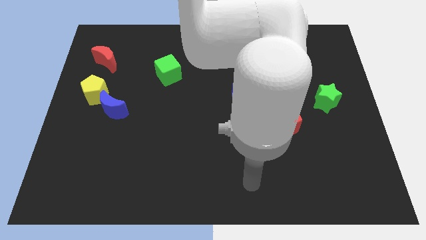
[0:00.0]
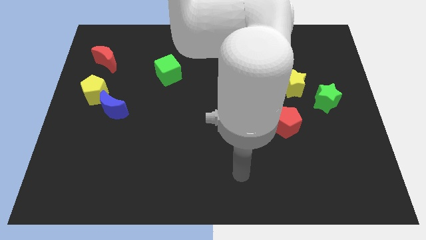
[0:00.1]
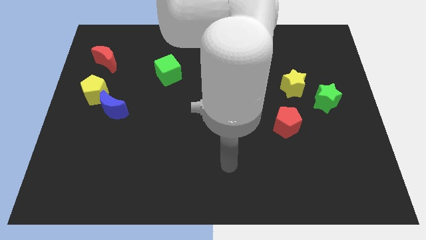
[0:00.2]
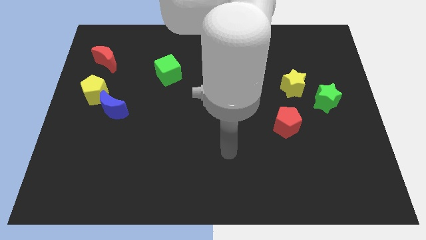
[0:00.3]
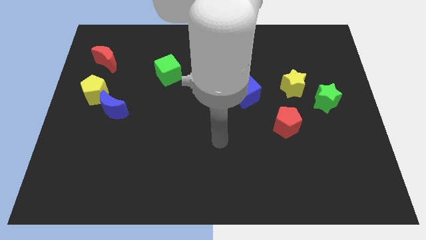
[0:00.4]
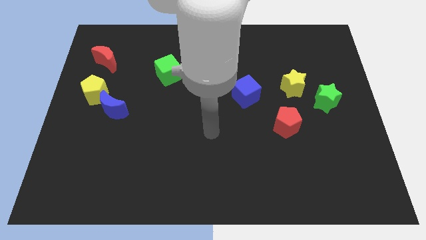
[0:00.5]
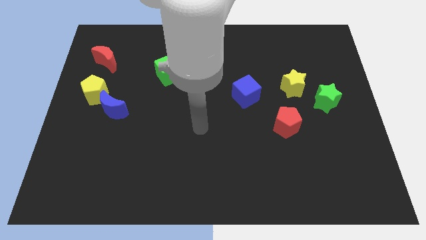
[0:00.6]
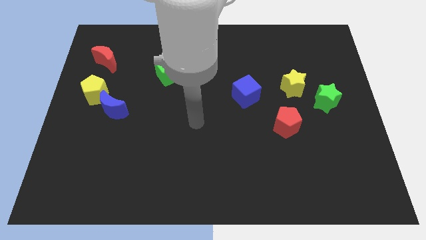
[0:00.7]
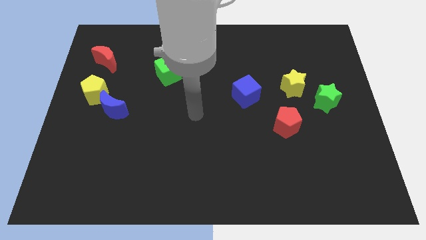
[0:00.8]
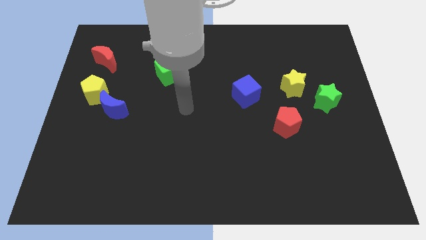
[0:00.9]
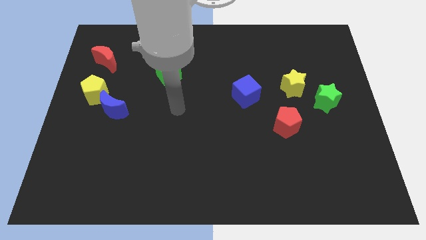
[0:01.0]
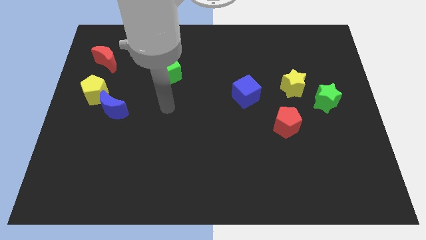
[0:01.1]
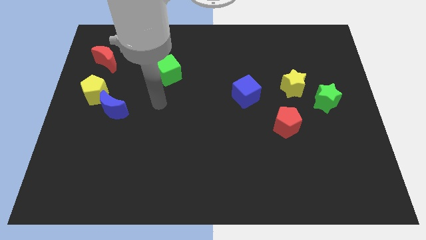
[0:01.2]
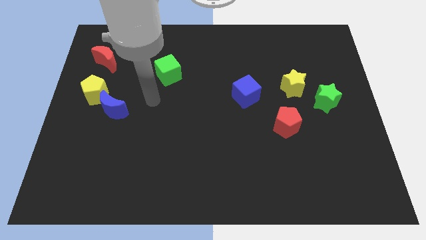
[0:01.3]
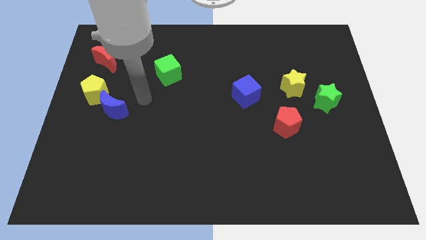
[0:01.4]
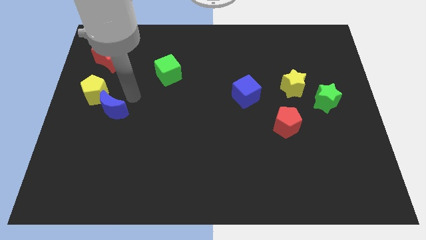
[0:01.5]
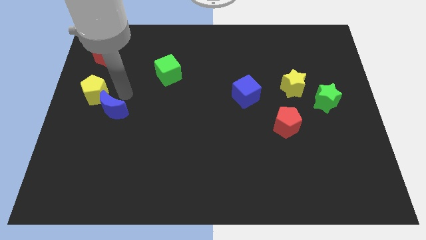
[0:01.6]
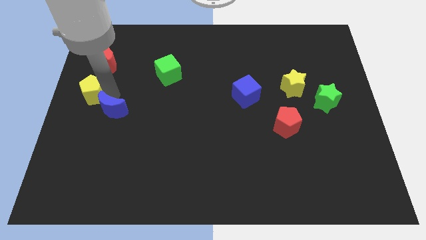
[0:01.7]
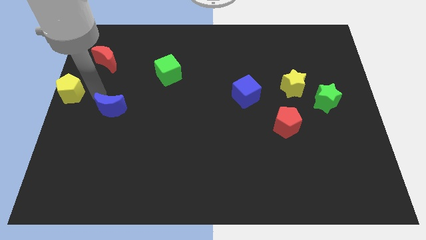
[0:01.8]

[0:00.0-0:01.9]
move the blue moon away from the yellow pentagon

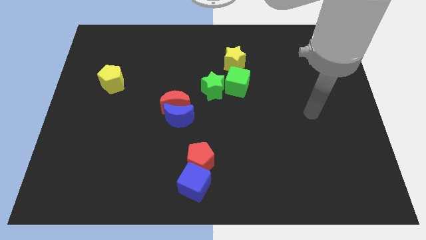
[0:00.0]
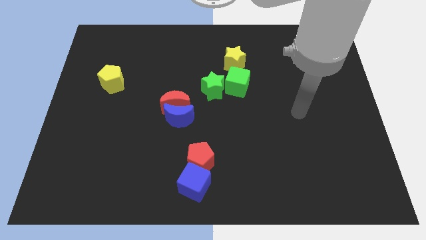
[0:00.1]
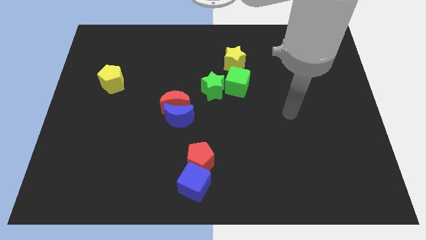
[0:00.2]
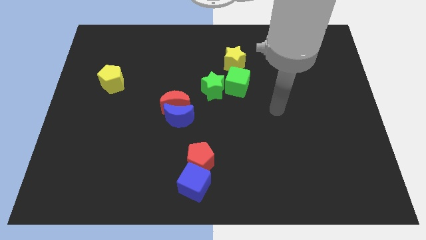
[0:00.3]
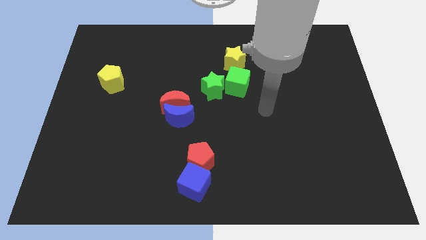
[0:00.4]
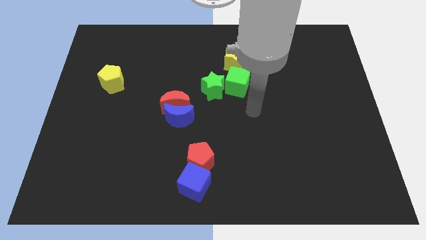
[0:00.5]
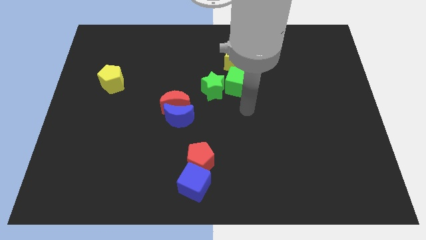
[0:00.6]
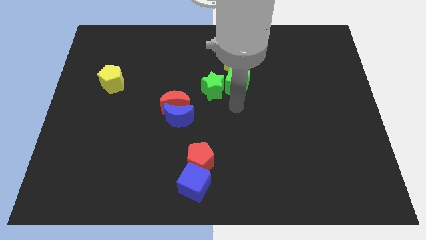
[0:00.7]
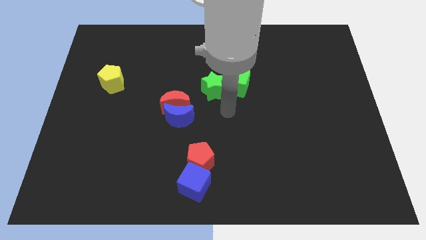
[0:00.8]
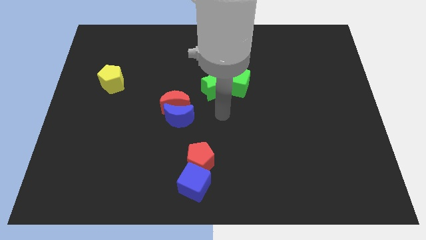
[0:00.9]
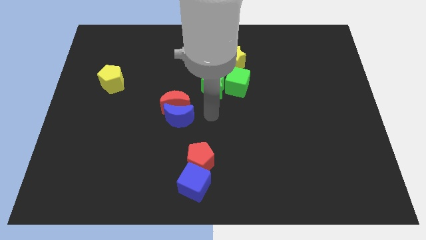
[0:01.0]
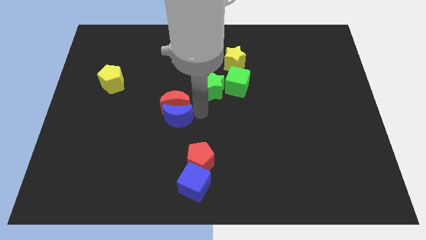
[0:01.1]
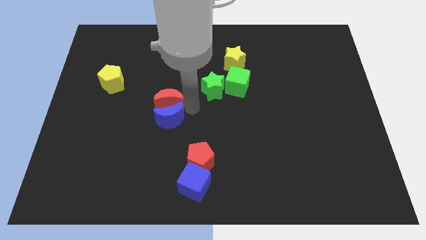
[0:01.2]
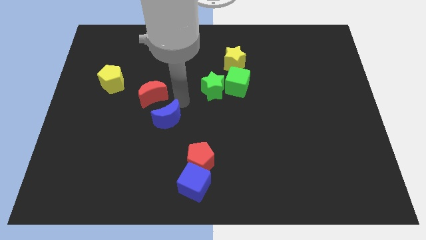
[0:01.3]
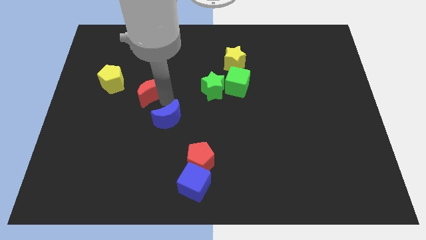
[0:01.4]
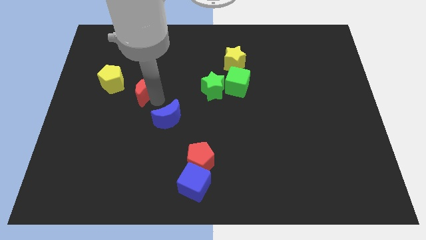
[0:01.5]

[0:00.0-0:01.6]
separate the blue moon from the red moon

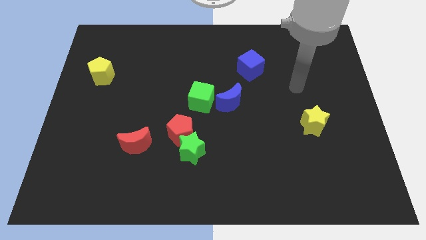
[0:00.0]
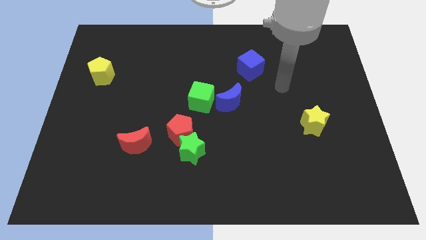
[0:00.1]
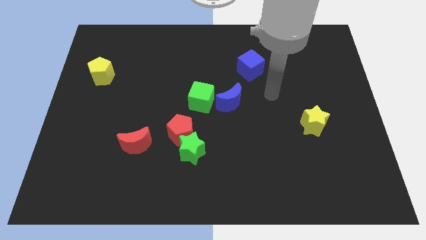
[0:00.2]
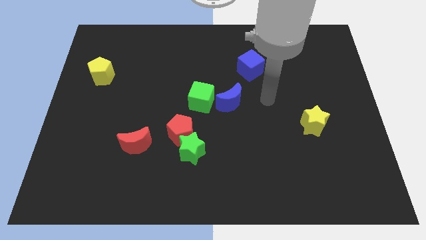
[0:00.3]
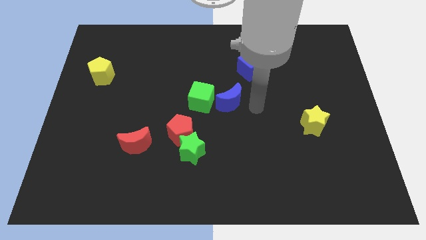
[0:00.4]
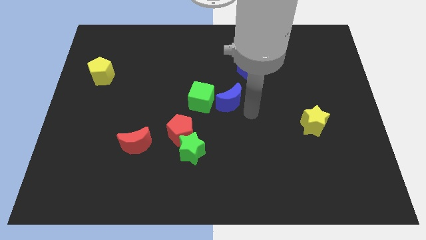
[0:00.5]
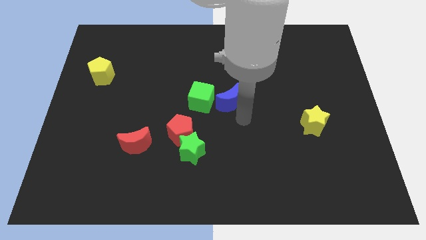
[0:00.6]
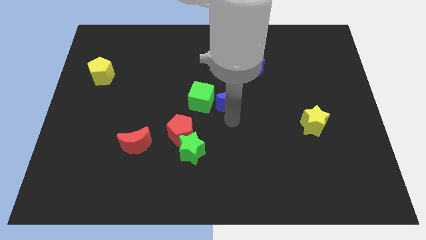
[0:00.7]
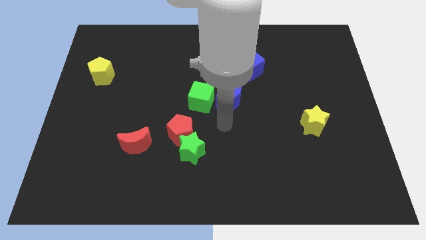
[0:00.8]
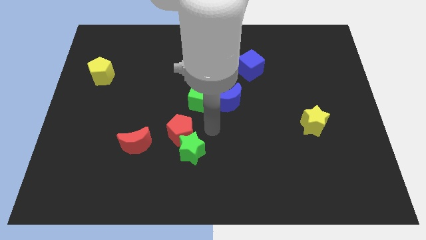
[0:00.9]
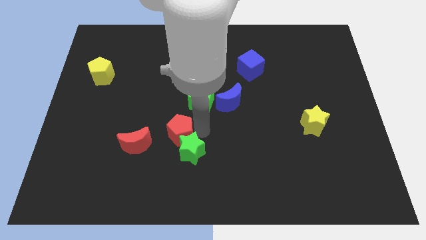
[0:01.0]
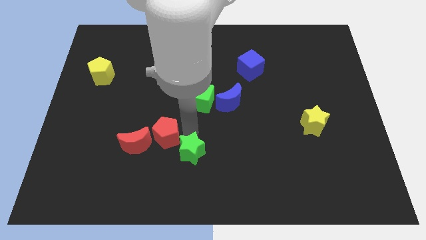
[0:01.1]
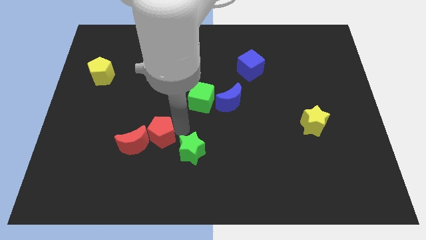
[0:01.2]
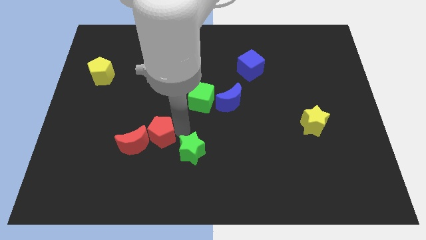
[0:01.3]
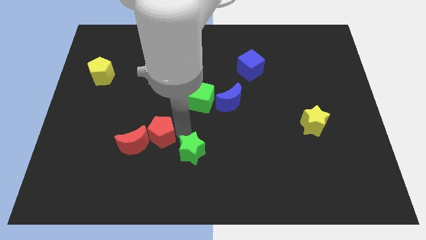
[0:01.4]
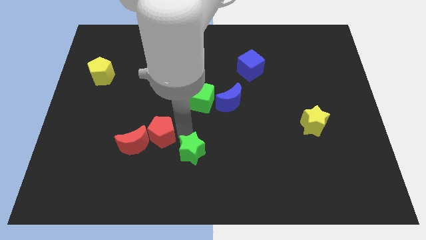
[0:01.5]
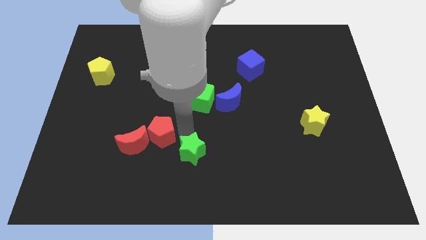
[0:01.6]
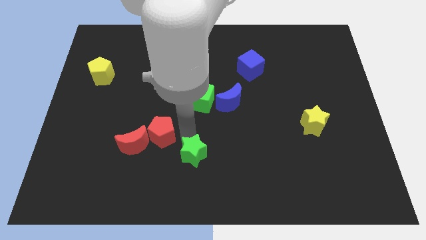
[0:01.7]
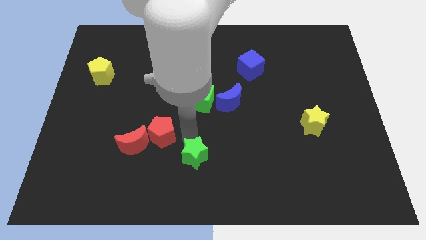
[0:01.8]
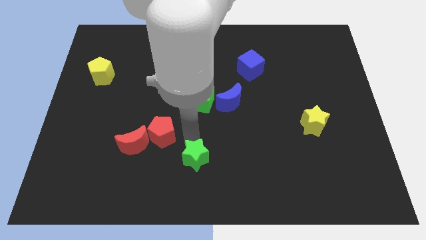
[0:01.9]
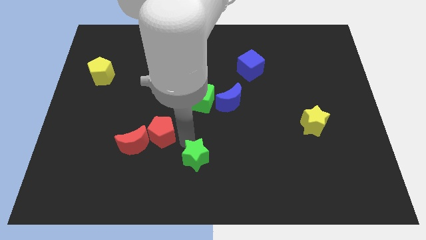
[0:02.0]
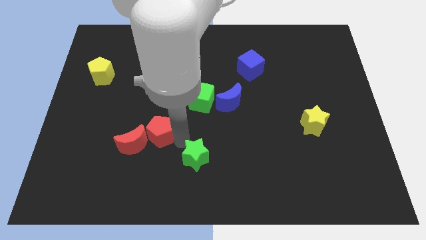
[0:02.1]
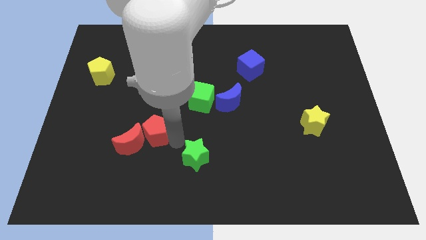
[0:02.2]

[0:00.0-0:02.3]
move the green star away from the red pentagon

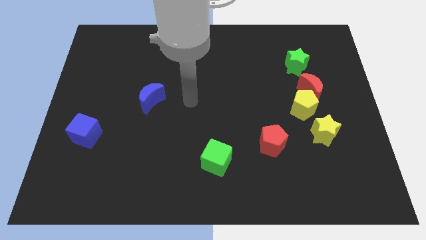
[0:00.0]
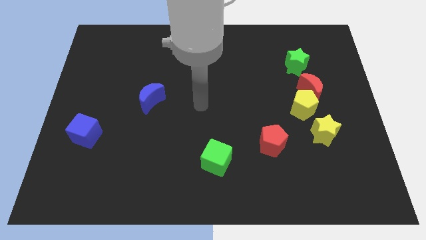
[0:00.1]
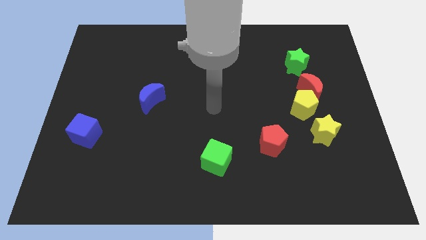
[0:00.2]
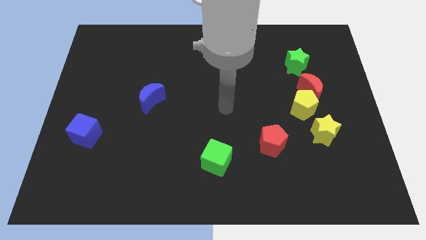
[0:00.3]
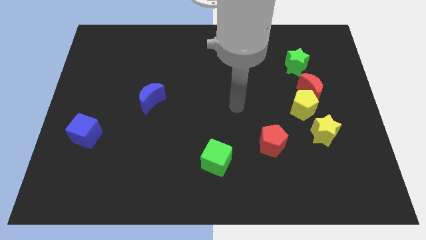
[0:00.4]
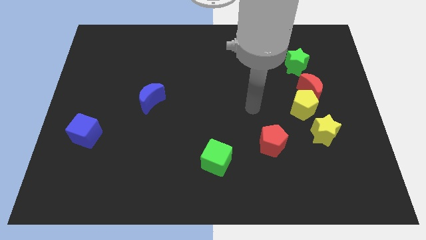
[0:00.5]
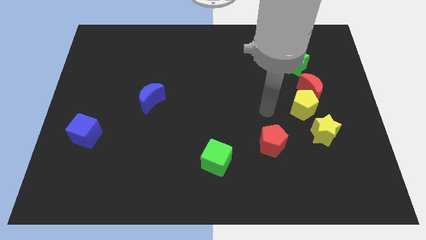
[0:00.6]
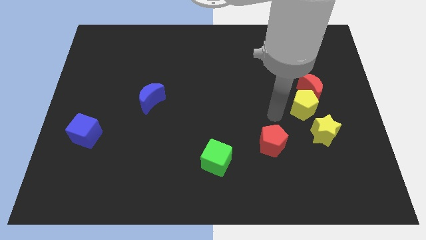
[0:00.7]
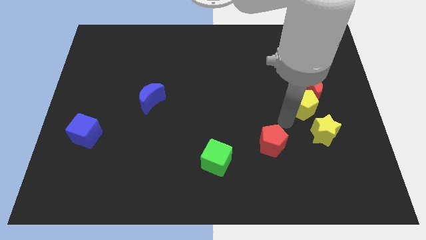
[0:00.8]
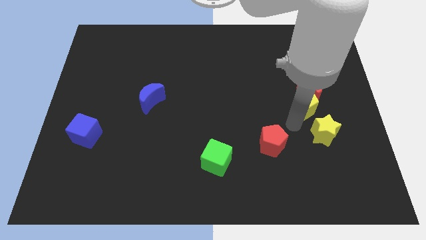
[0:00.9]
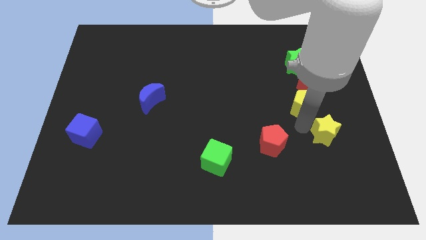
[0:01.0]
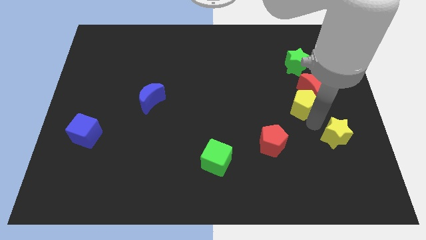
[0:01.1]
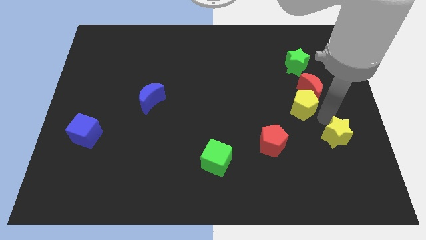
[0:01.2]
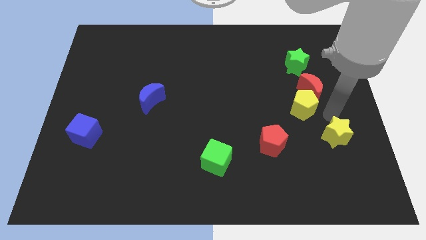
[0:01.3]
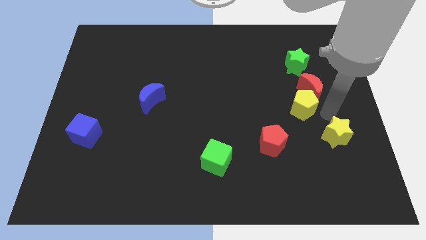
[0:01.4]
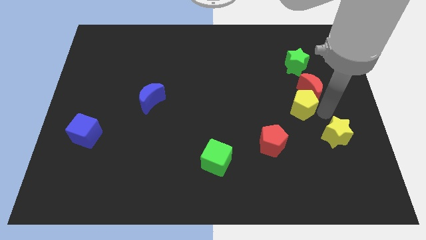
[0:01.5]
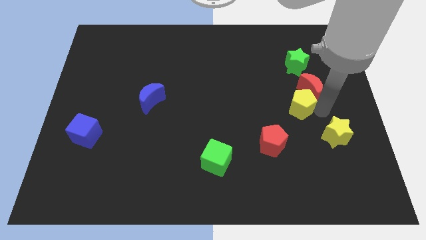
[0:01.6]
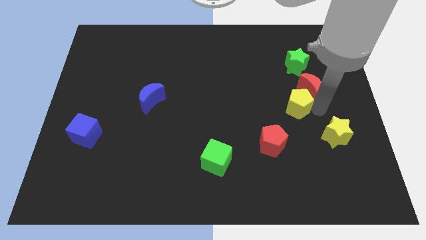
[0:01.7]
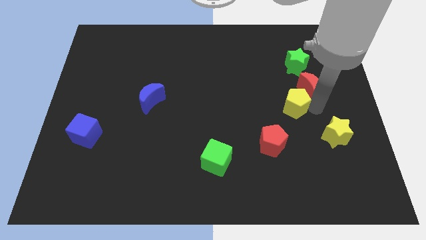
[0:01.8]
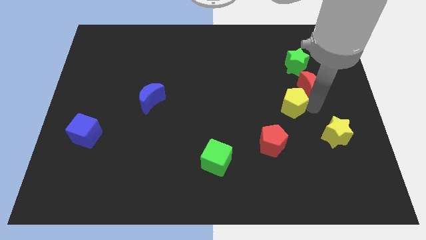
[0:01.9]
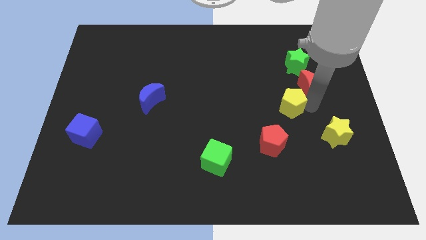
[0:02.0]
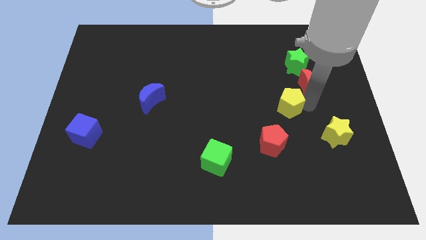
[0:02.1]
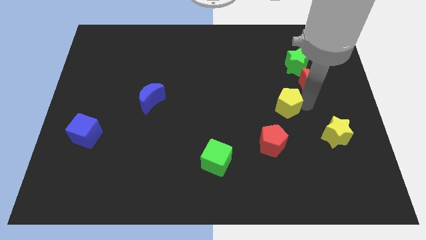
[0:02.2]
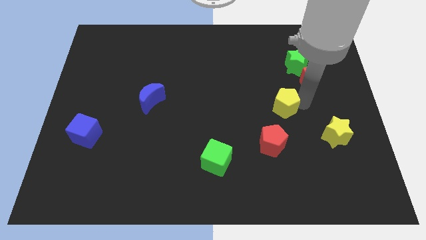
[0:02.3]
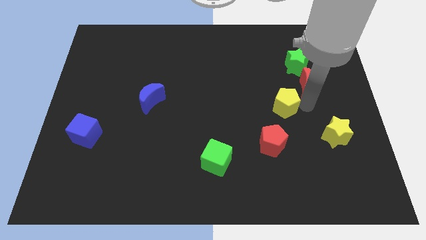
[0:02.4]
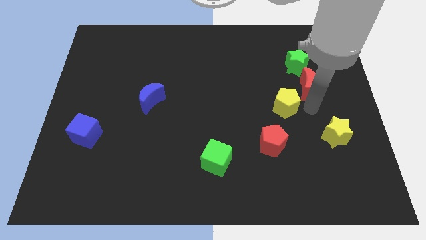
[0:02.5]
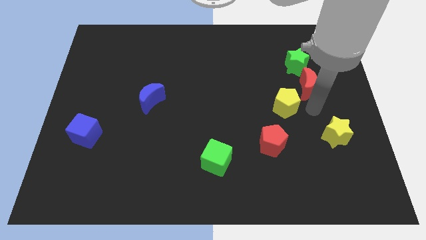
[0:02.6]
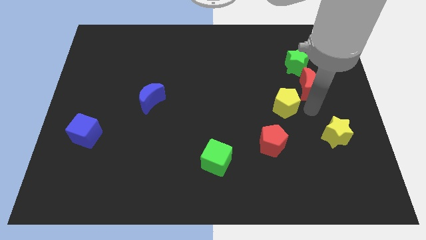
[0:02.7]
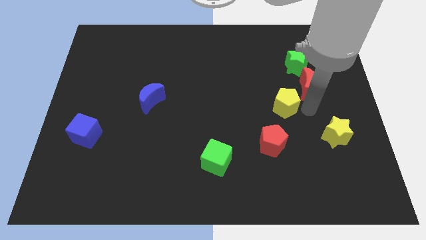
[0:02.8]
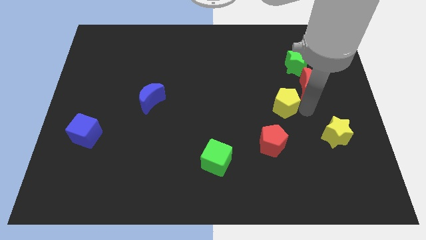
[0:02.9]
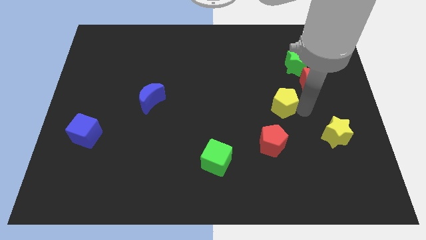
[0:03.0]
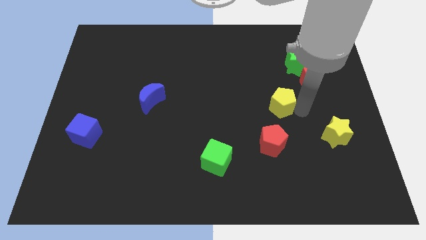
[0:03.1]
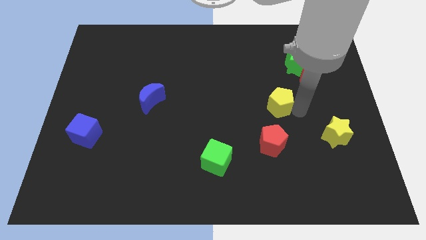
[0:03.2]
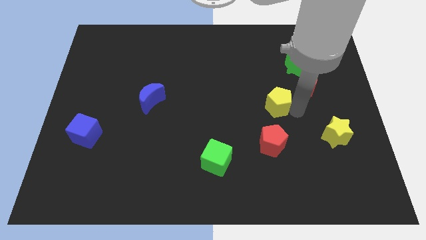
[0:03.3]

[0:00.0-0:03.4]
move the yellow pentagon away from the red moon and yellow star

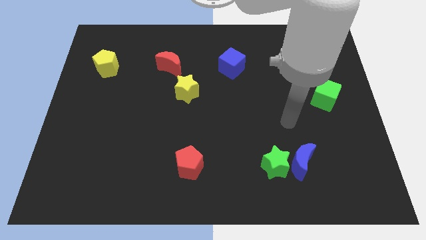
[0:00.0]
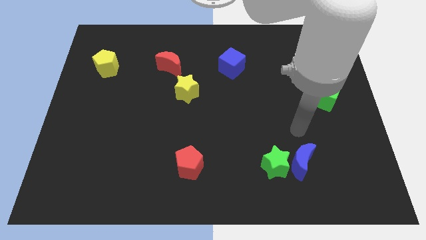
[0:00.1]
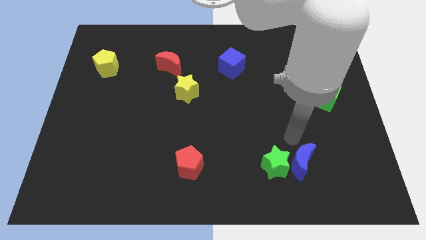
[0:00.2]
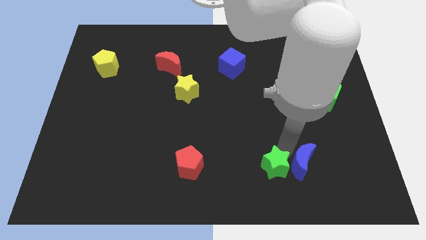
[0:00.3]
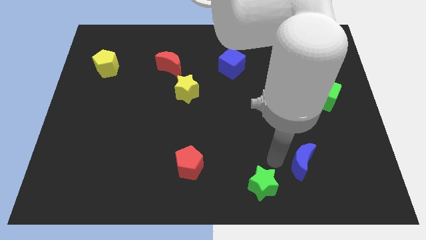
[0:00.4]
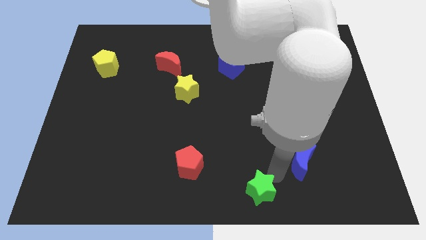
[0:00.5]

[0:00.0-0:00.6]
pull the blue moon apart from the green star
